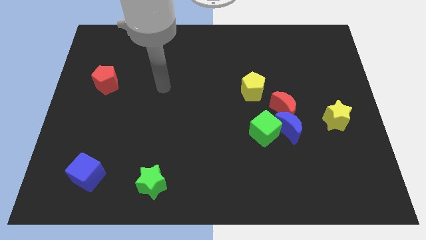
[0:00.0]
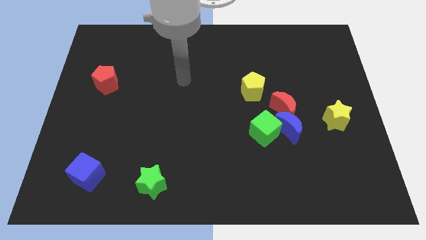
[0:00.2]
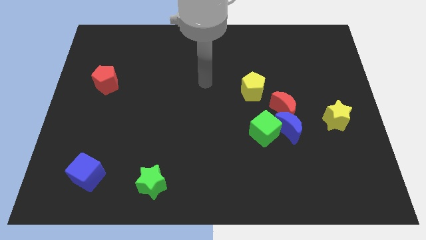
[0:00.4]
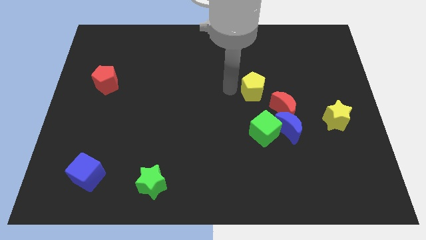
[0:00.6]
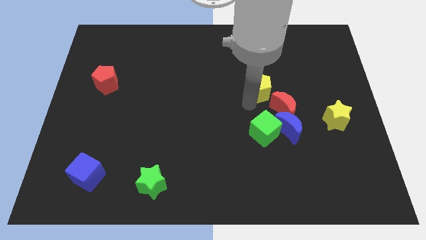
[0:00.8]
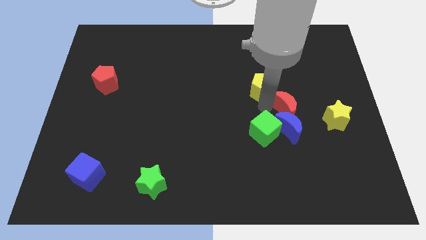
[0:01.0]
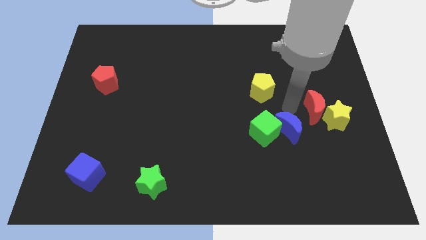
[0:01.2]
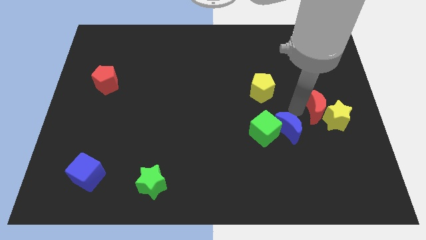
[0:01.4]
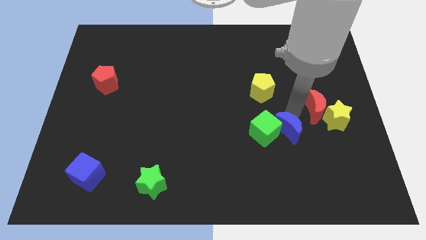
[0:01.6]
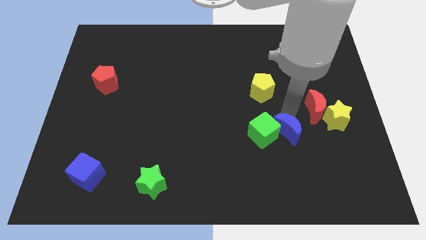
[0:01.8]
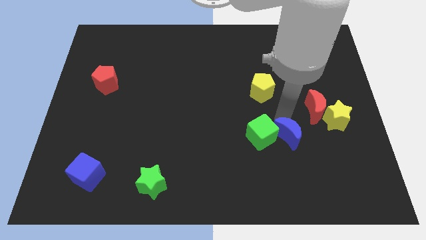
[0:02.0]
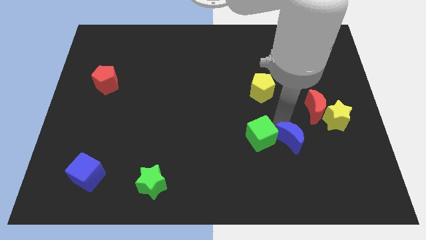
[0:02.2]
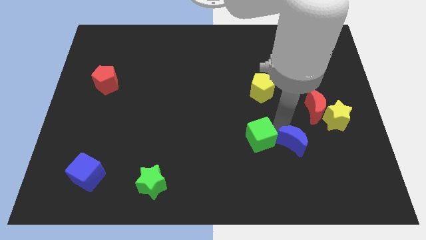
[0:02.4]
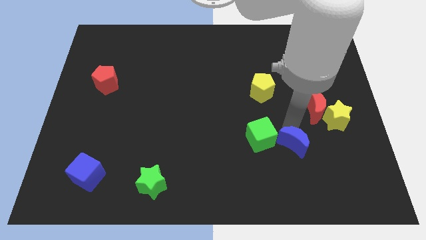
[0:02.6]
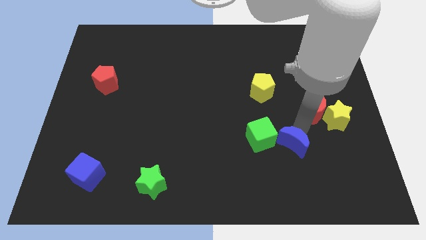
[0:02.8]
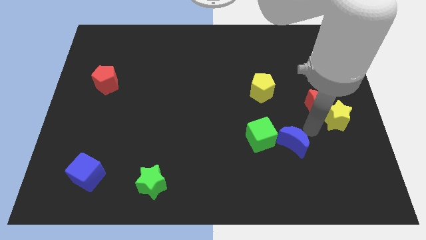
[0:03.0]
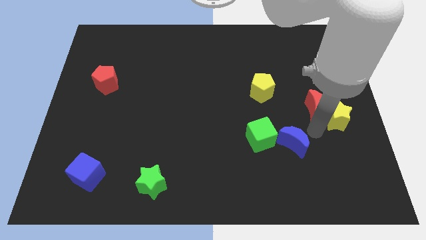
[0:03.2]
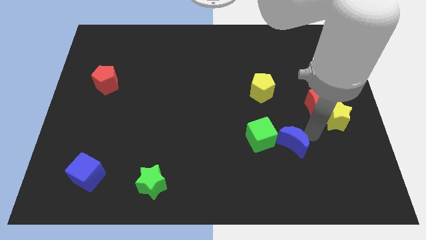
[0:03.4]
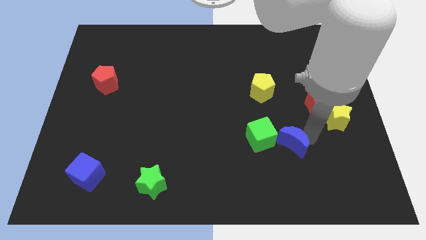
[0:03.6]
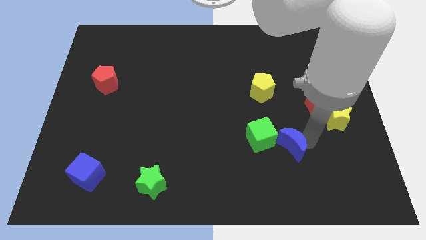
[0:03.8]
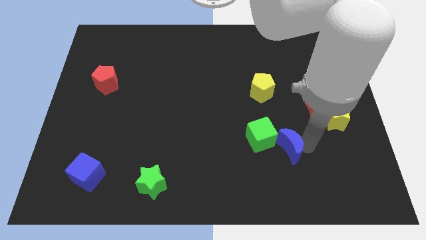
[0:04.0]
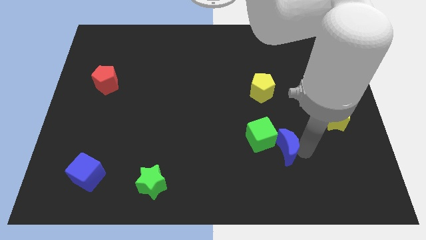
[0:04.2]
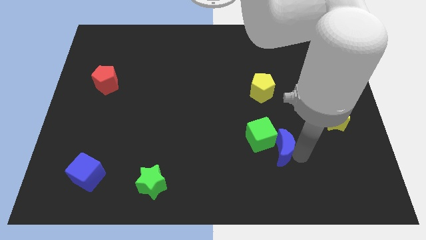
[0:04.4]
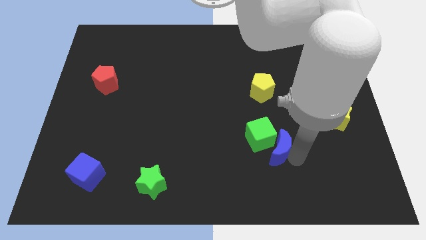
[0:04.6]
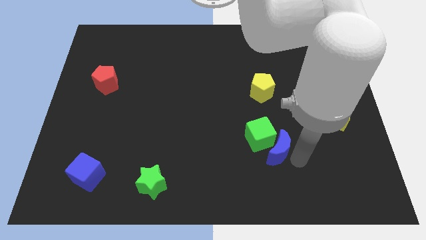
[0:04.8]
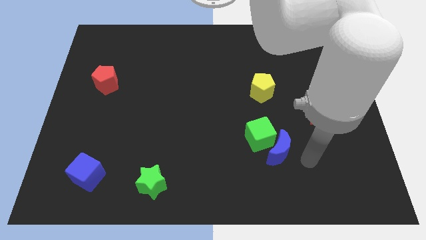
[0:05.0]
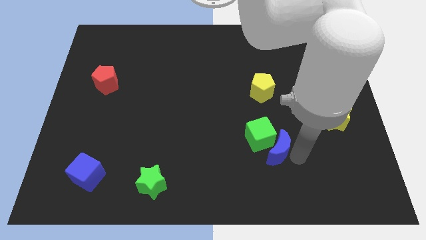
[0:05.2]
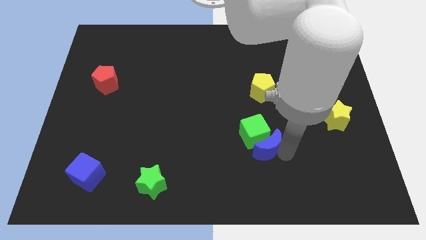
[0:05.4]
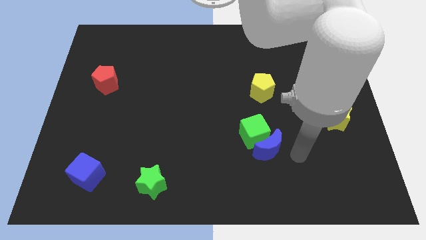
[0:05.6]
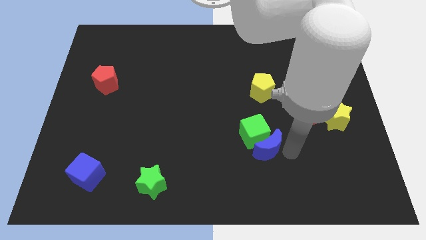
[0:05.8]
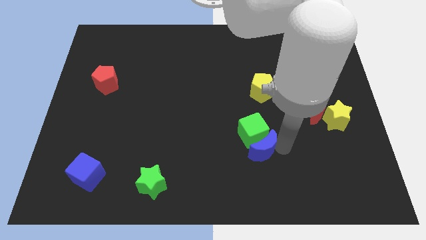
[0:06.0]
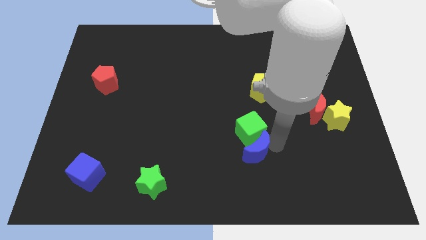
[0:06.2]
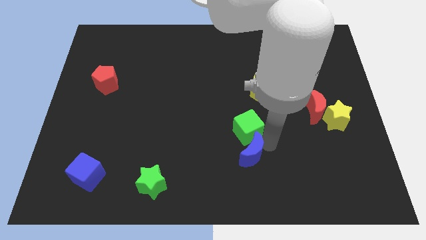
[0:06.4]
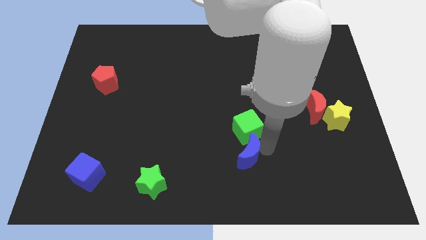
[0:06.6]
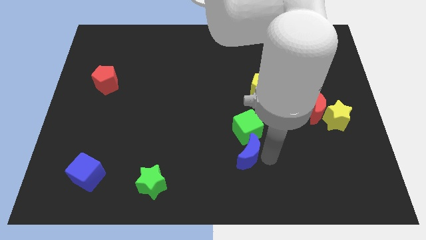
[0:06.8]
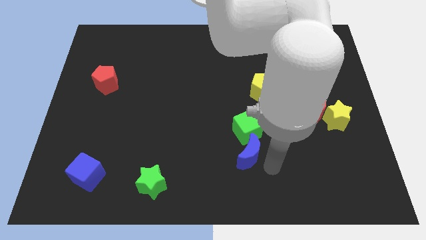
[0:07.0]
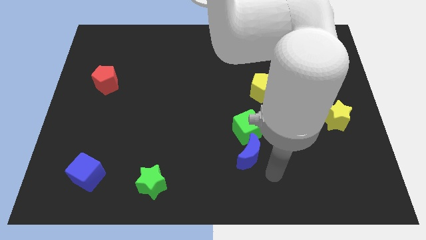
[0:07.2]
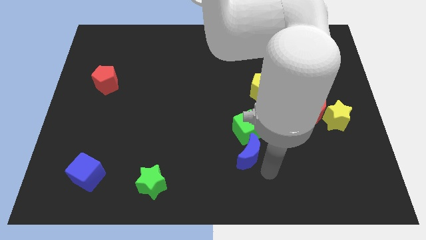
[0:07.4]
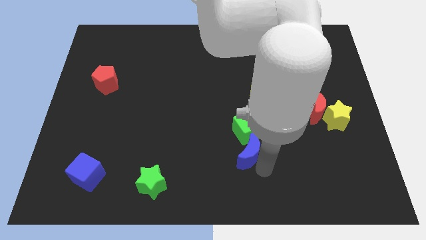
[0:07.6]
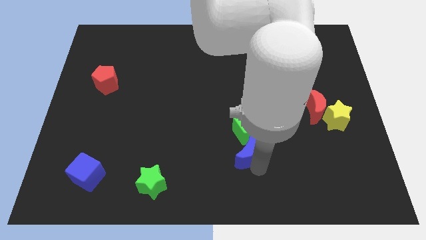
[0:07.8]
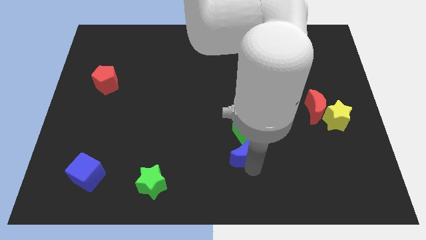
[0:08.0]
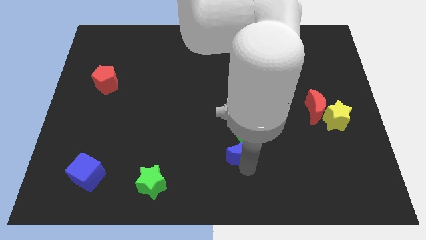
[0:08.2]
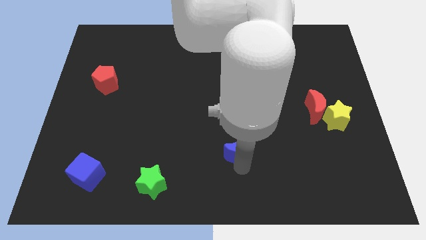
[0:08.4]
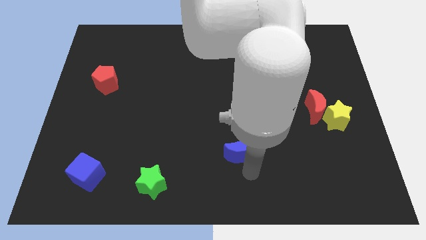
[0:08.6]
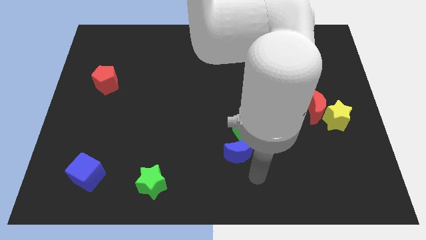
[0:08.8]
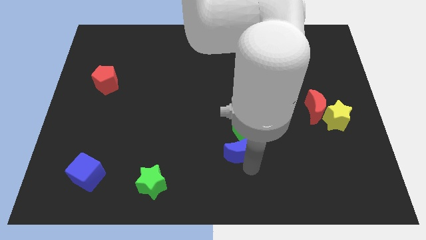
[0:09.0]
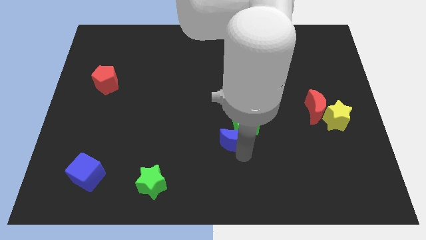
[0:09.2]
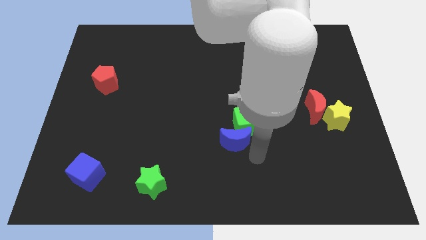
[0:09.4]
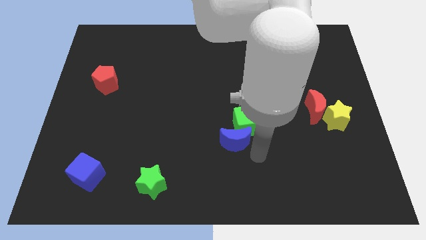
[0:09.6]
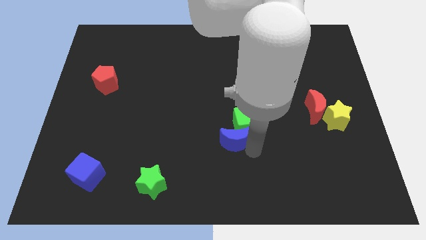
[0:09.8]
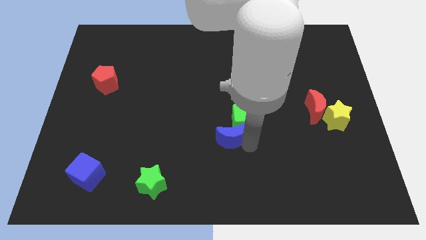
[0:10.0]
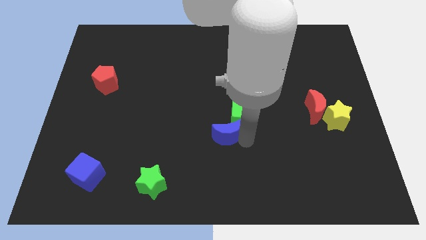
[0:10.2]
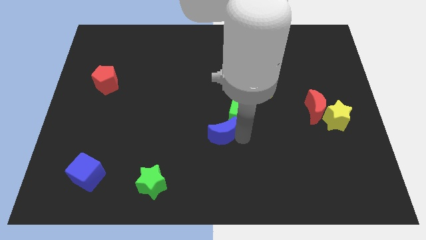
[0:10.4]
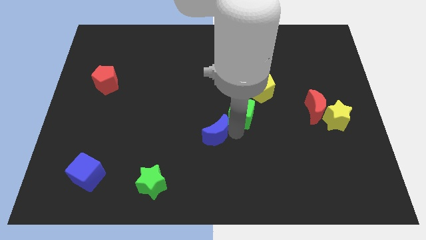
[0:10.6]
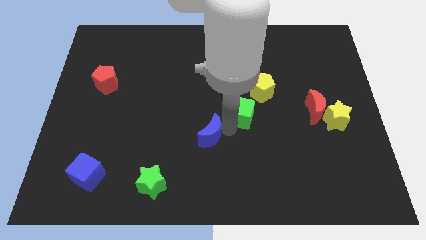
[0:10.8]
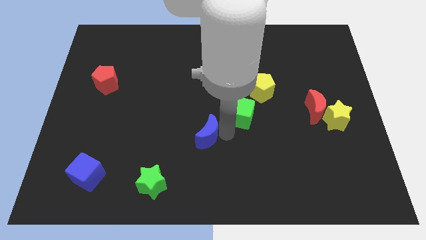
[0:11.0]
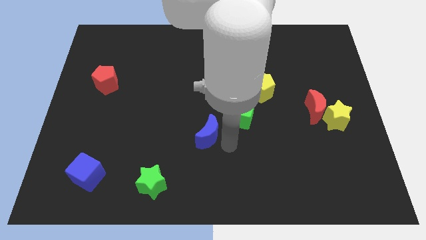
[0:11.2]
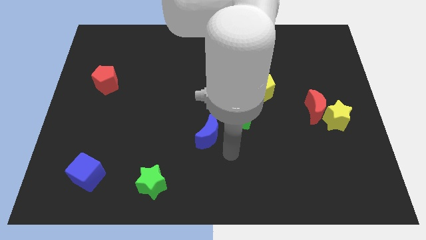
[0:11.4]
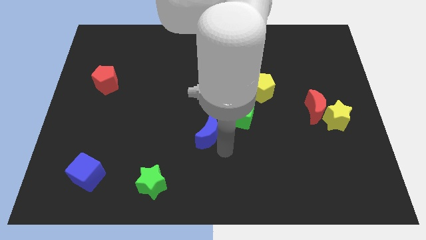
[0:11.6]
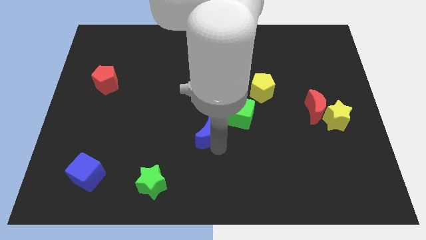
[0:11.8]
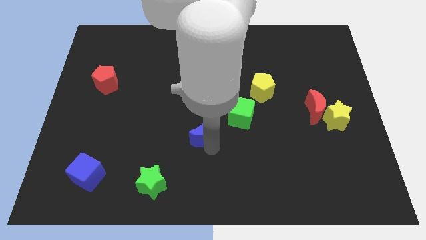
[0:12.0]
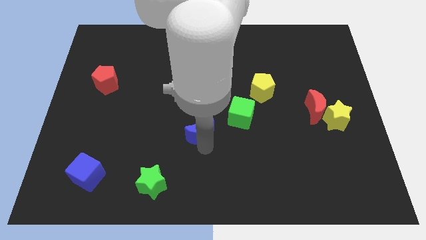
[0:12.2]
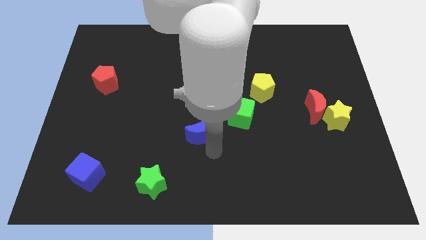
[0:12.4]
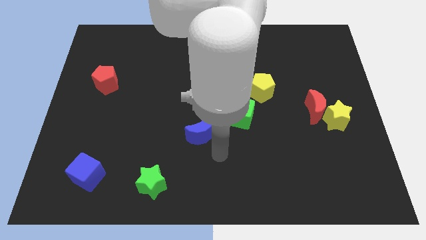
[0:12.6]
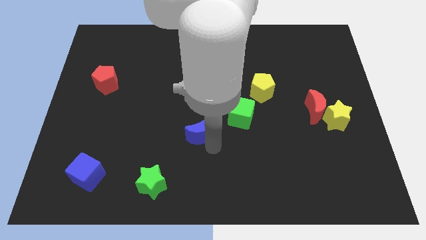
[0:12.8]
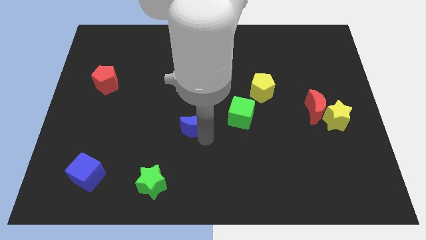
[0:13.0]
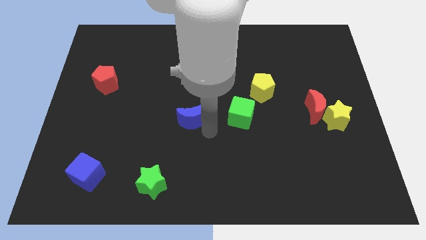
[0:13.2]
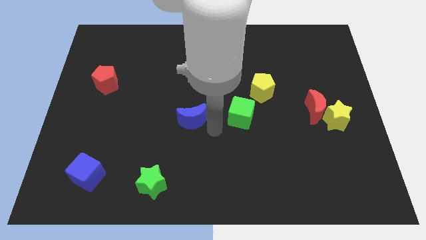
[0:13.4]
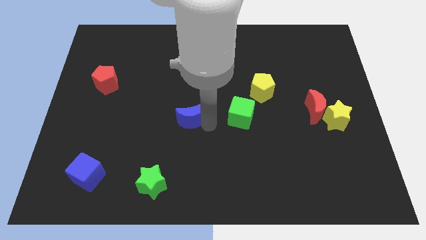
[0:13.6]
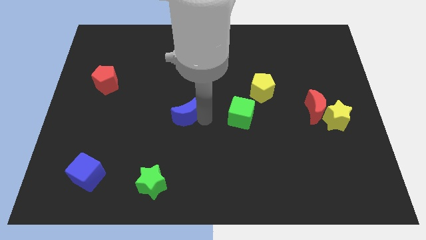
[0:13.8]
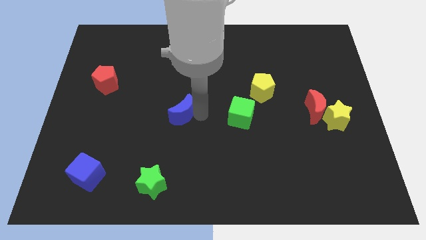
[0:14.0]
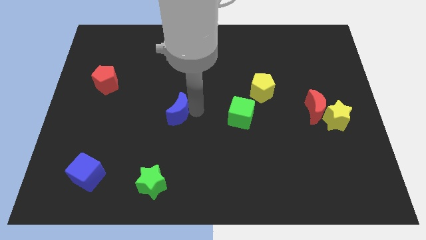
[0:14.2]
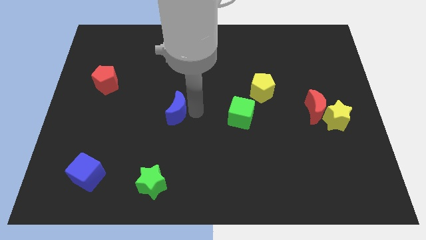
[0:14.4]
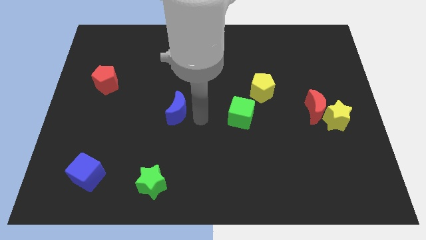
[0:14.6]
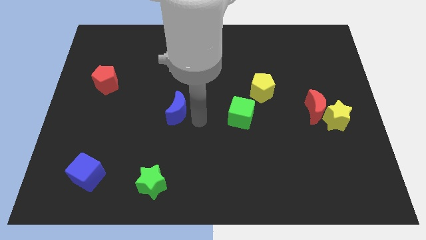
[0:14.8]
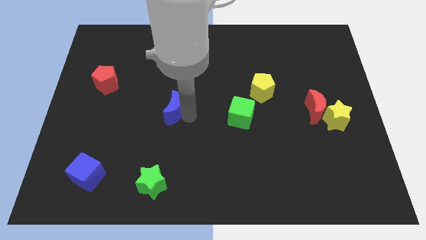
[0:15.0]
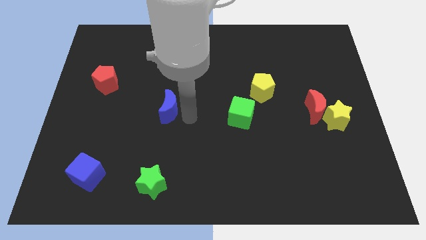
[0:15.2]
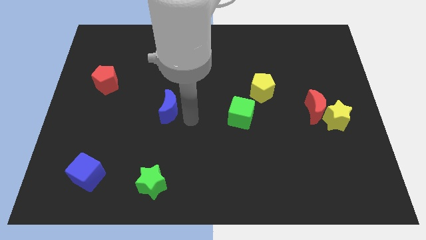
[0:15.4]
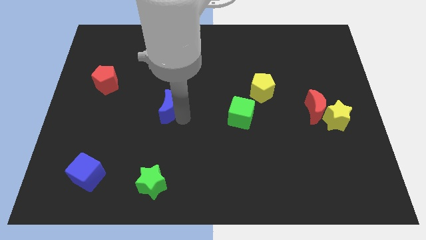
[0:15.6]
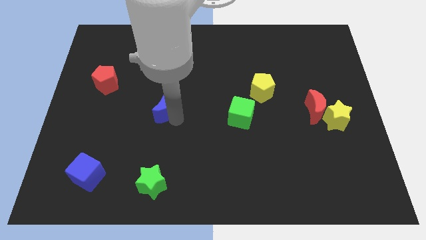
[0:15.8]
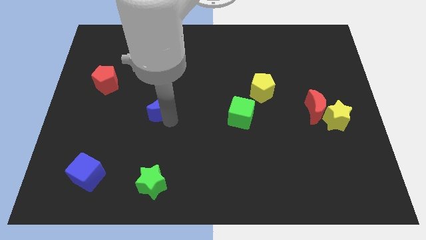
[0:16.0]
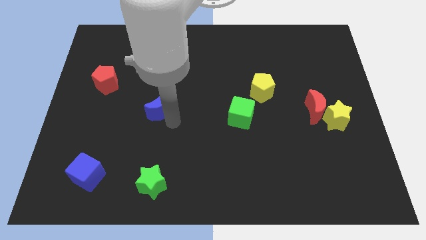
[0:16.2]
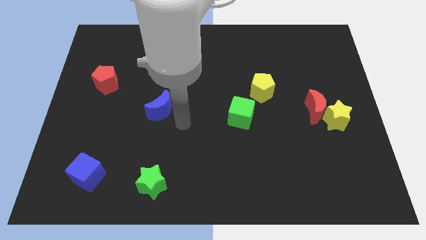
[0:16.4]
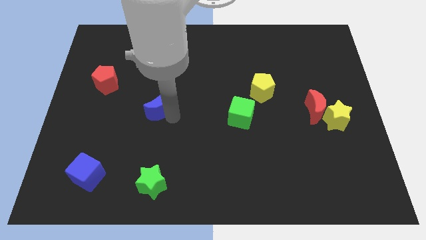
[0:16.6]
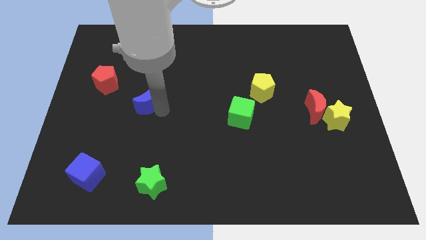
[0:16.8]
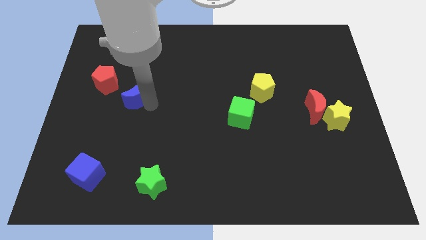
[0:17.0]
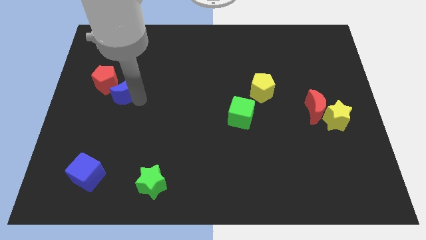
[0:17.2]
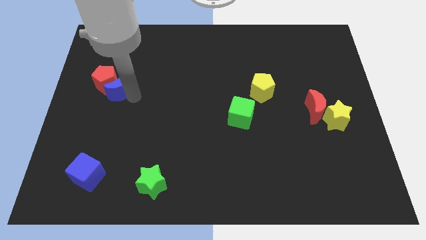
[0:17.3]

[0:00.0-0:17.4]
push the blue moon close to the red pentagon
